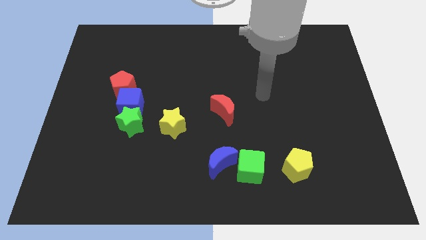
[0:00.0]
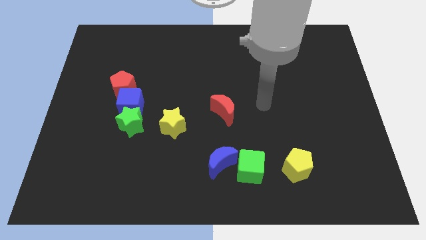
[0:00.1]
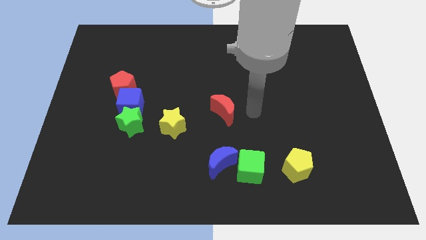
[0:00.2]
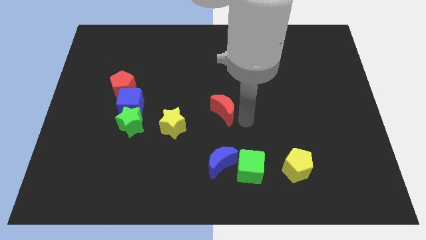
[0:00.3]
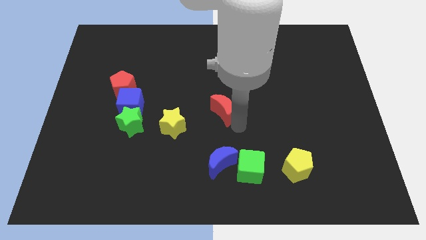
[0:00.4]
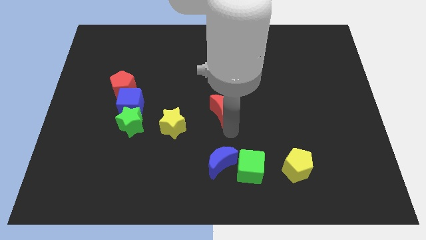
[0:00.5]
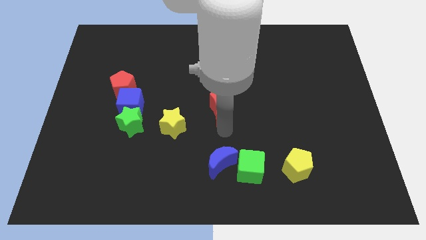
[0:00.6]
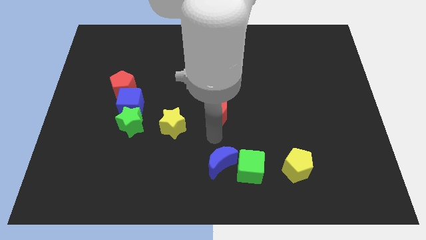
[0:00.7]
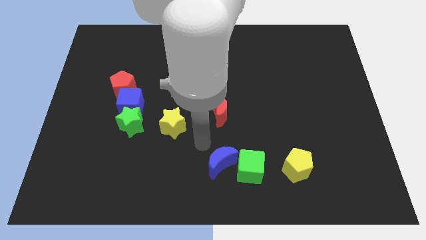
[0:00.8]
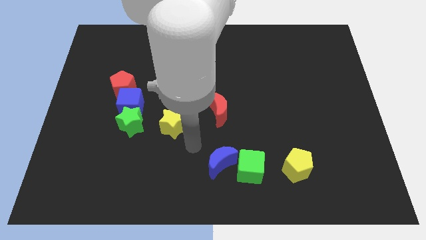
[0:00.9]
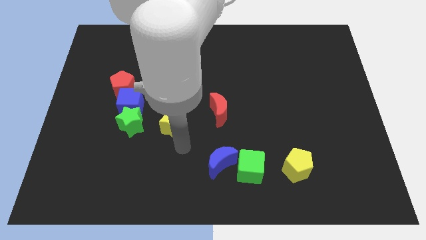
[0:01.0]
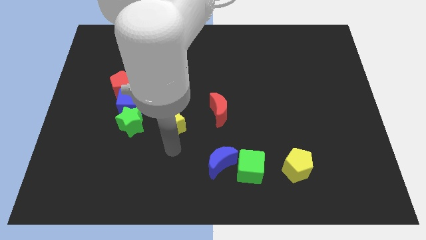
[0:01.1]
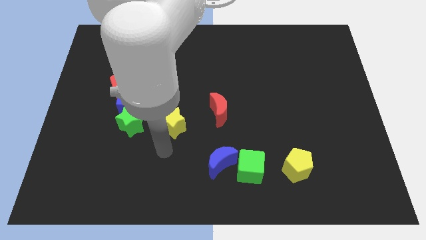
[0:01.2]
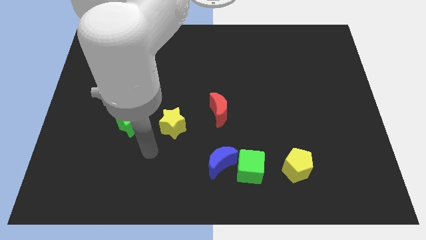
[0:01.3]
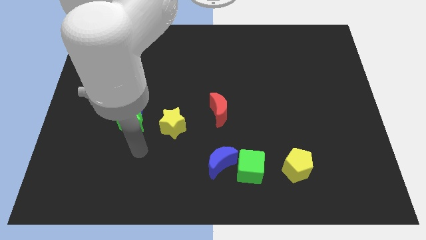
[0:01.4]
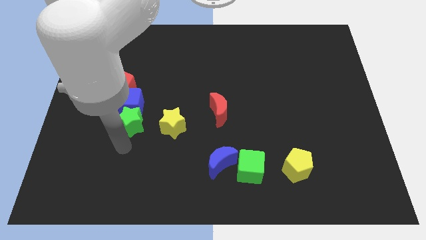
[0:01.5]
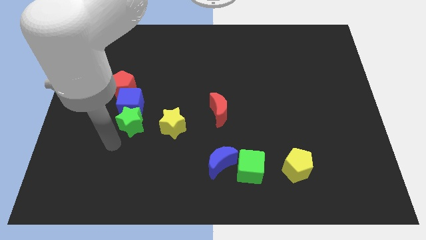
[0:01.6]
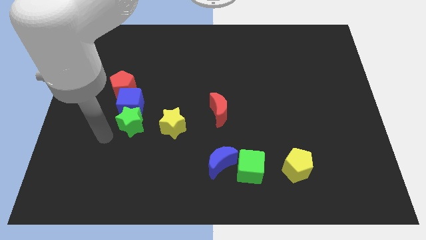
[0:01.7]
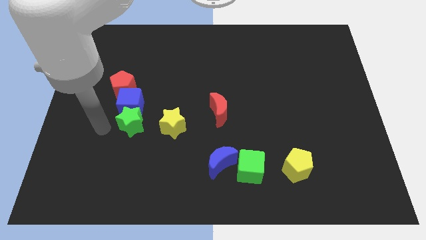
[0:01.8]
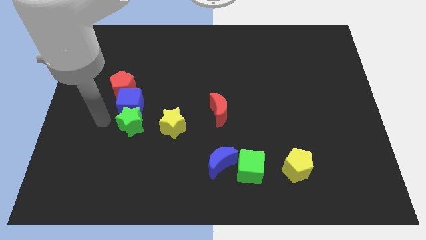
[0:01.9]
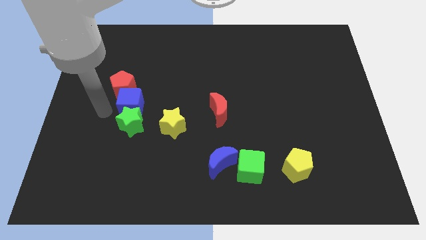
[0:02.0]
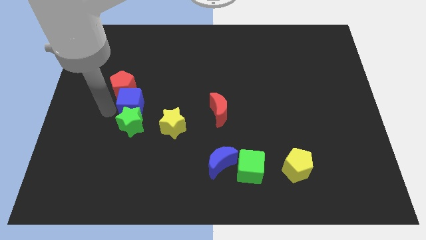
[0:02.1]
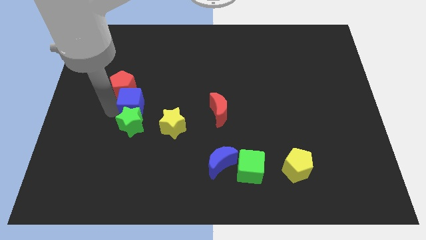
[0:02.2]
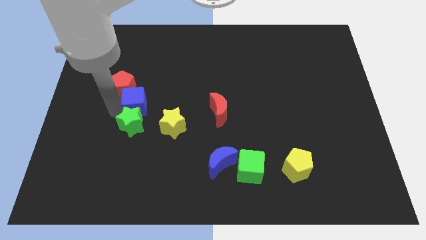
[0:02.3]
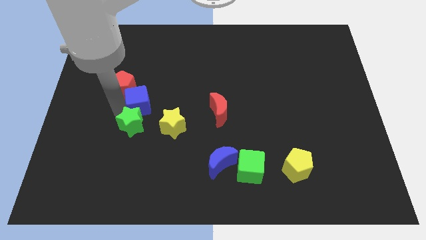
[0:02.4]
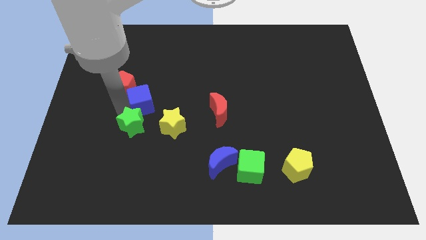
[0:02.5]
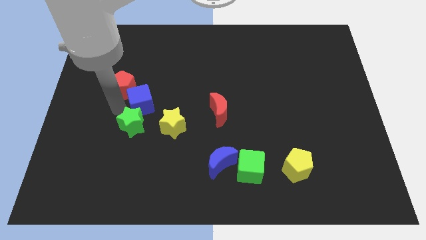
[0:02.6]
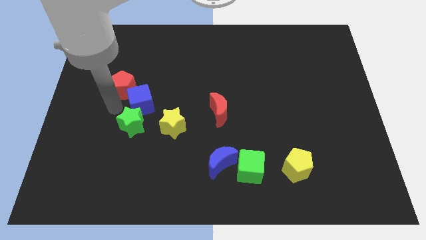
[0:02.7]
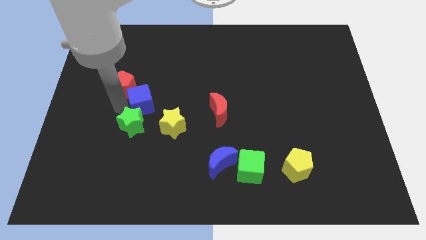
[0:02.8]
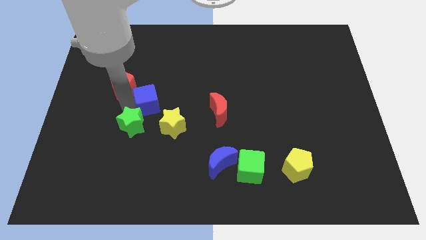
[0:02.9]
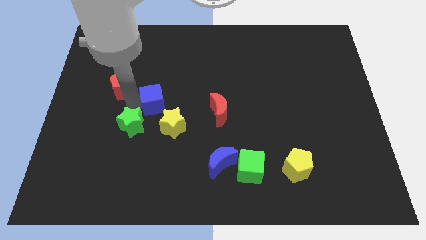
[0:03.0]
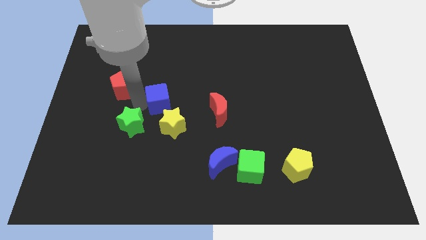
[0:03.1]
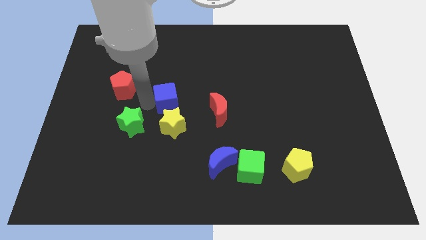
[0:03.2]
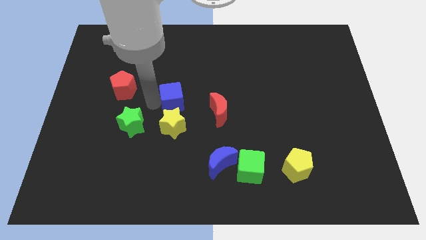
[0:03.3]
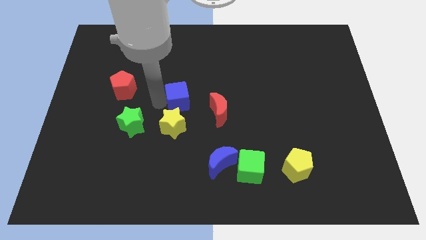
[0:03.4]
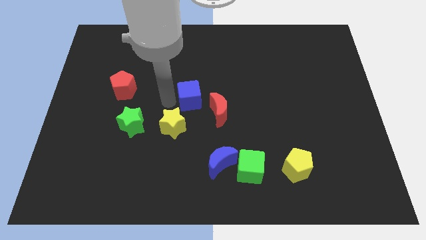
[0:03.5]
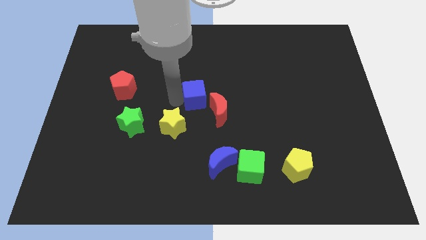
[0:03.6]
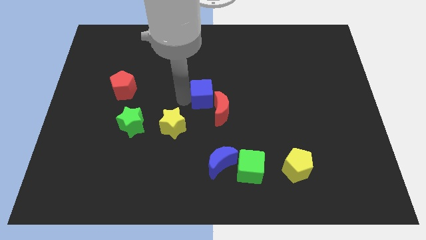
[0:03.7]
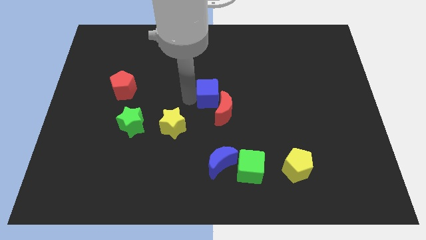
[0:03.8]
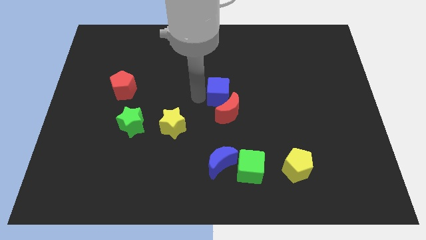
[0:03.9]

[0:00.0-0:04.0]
slide the blue cube to the right

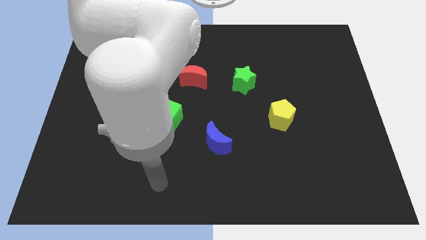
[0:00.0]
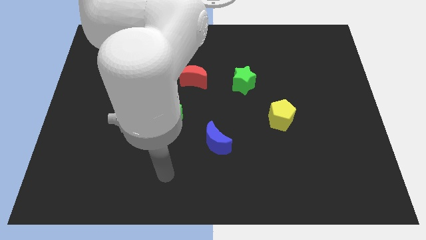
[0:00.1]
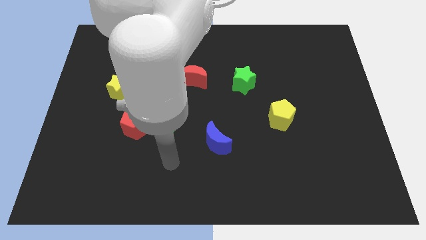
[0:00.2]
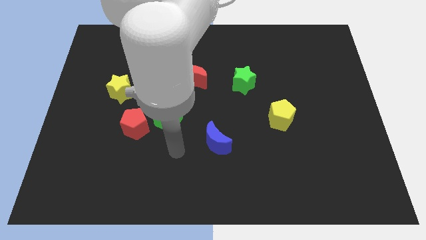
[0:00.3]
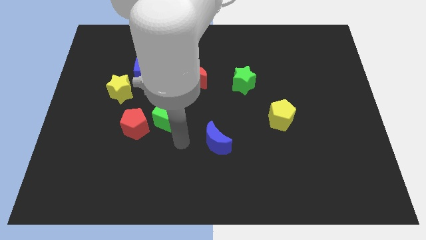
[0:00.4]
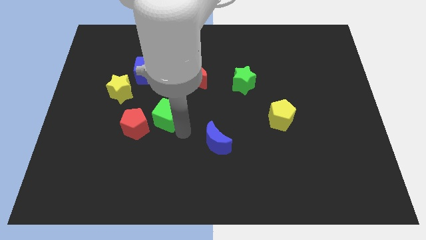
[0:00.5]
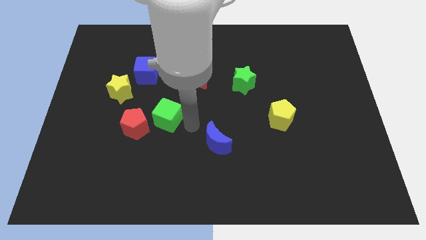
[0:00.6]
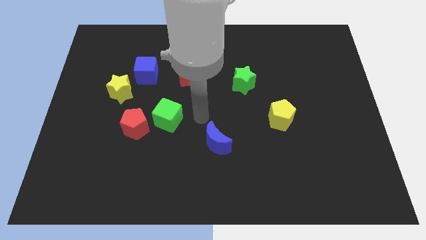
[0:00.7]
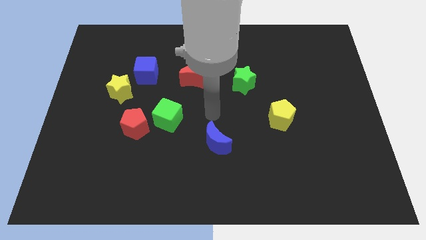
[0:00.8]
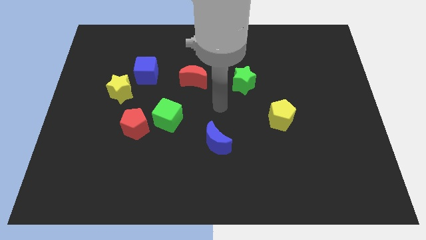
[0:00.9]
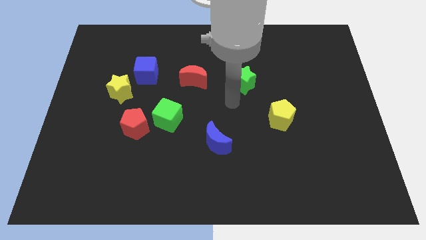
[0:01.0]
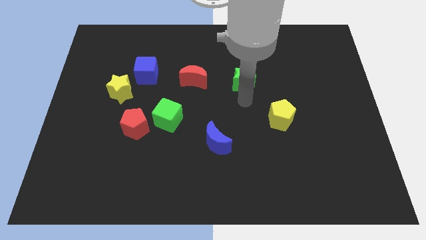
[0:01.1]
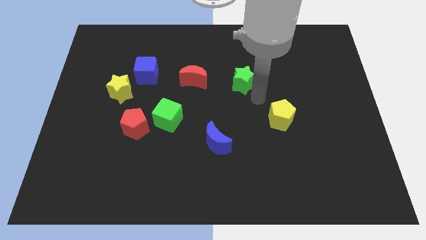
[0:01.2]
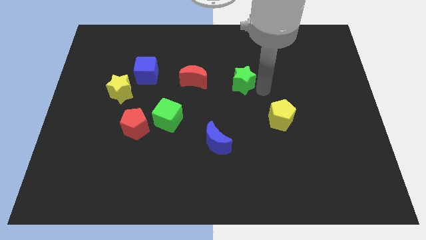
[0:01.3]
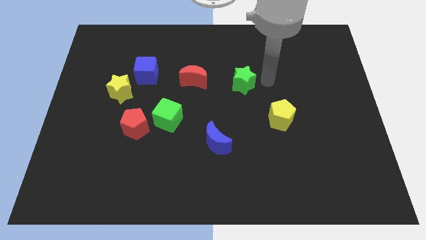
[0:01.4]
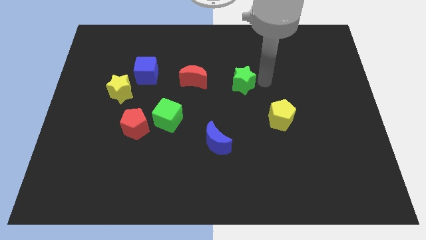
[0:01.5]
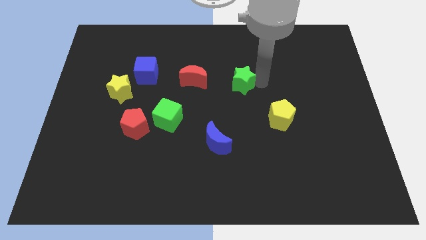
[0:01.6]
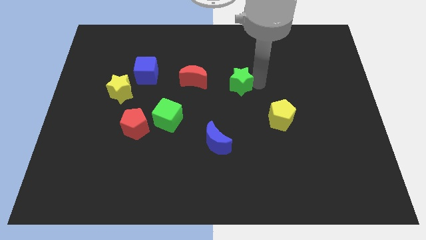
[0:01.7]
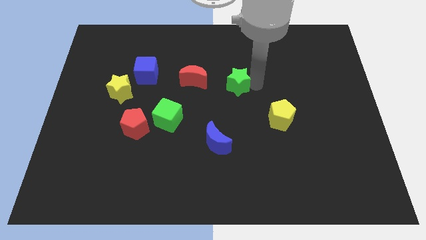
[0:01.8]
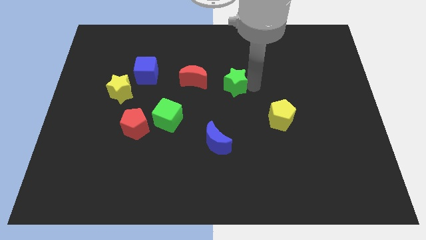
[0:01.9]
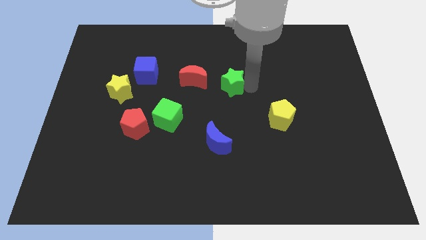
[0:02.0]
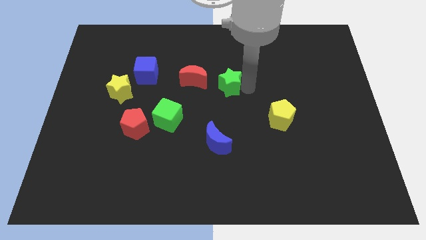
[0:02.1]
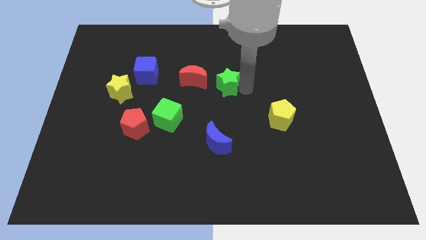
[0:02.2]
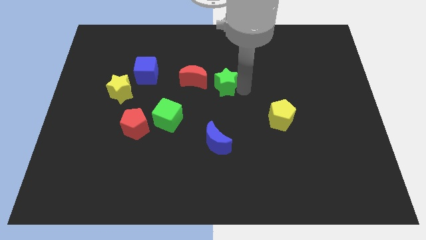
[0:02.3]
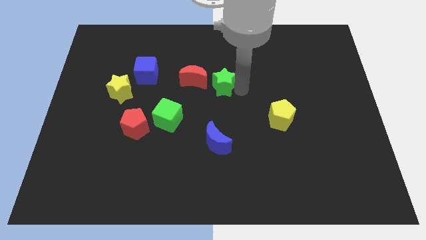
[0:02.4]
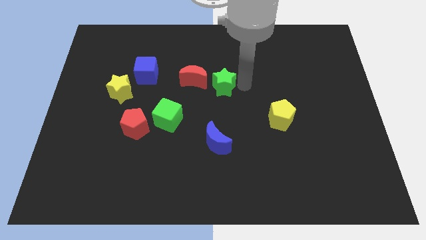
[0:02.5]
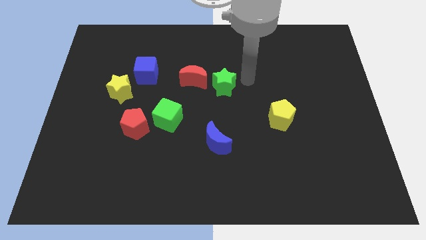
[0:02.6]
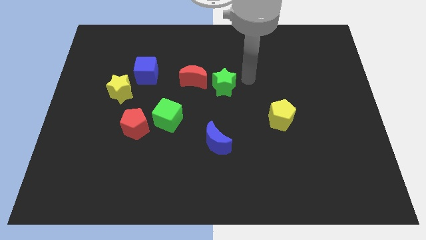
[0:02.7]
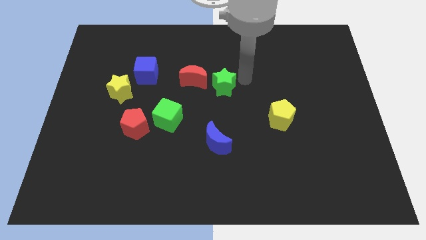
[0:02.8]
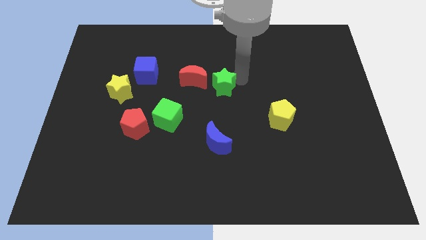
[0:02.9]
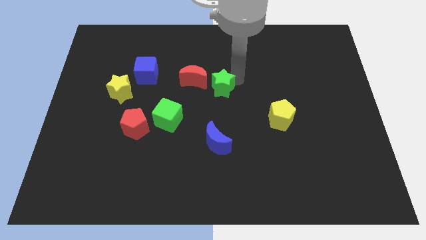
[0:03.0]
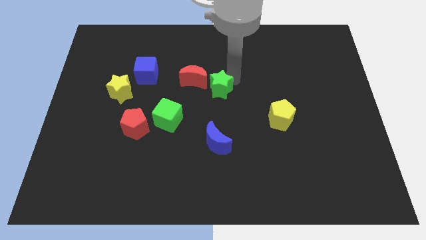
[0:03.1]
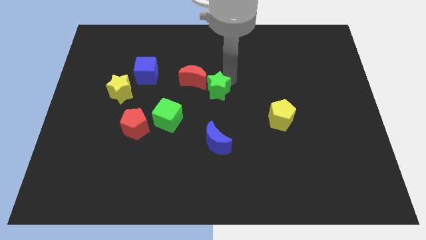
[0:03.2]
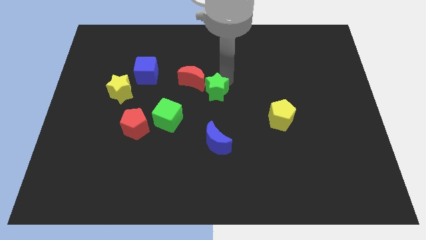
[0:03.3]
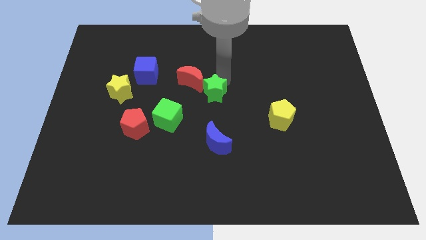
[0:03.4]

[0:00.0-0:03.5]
slide the green star a bit to the left
